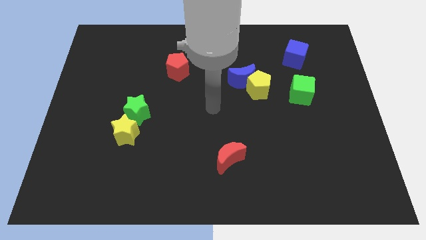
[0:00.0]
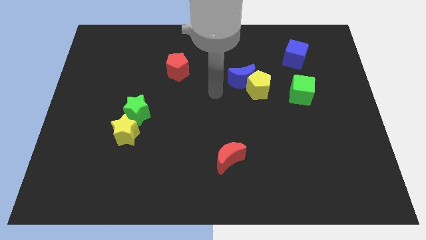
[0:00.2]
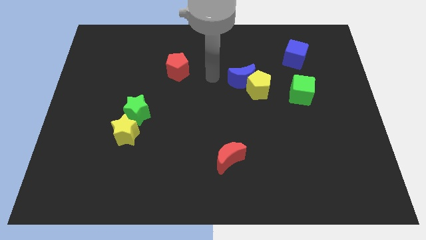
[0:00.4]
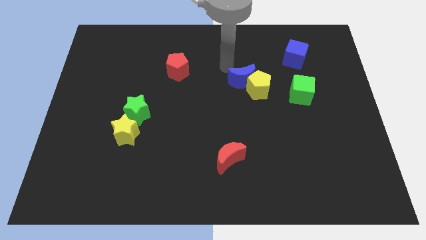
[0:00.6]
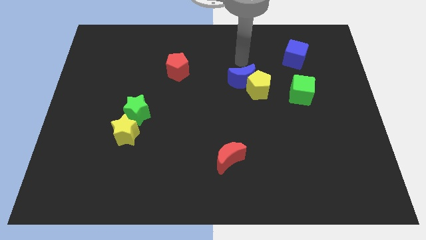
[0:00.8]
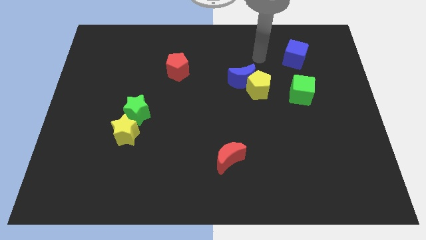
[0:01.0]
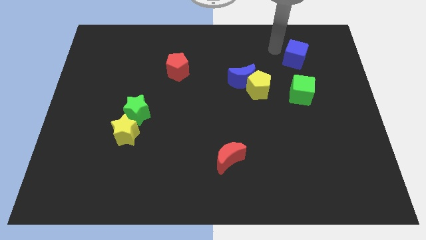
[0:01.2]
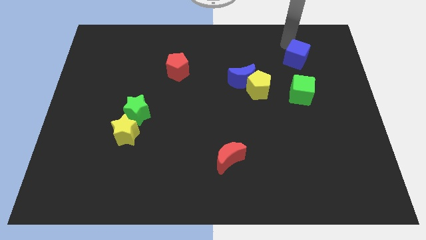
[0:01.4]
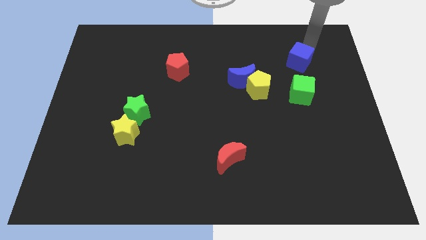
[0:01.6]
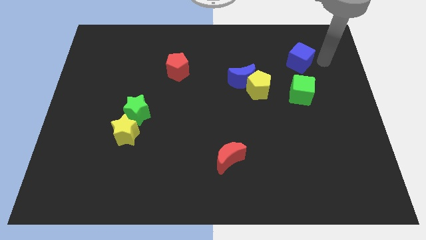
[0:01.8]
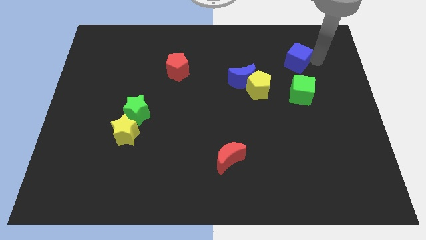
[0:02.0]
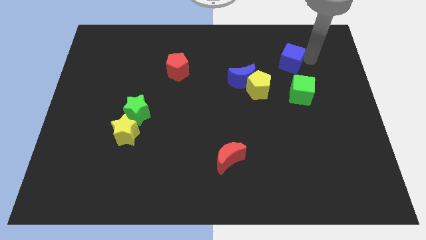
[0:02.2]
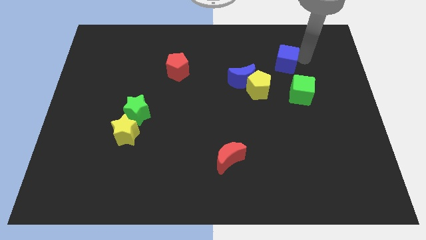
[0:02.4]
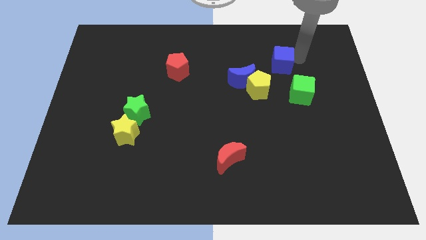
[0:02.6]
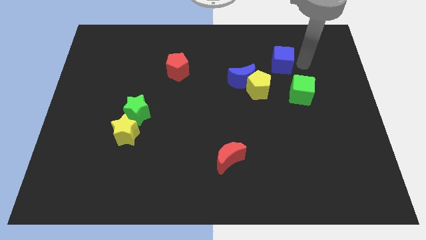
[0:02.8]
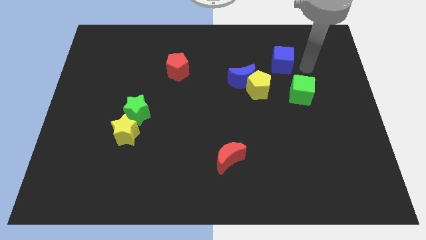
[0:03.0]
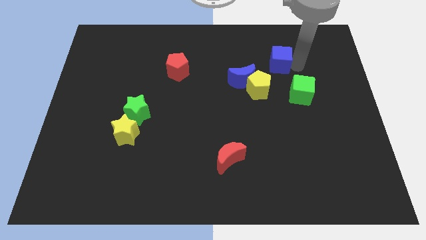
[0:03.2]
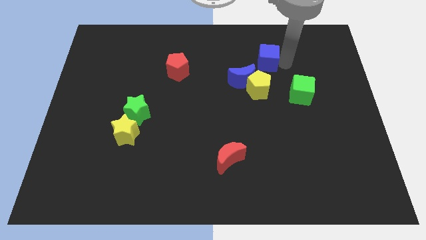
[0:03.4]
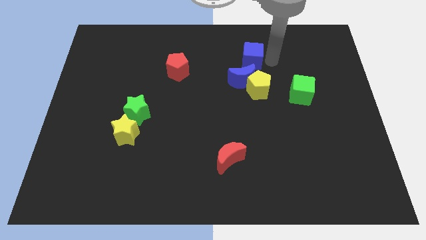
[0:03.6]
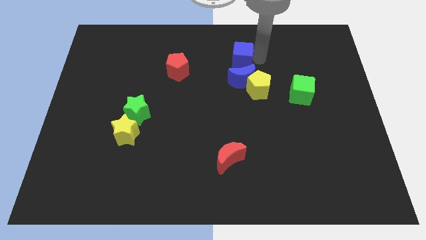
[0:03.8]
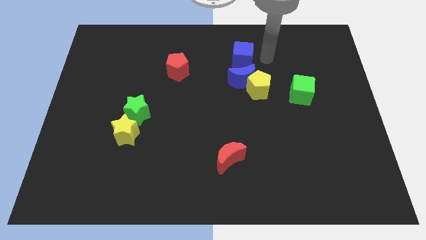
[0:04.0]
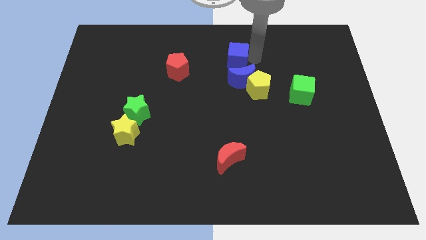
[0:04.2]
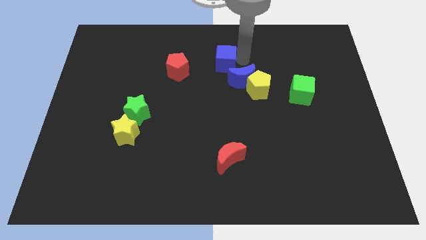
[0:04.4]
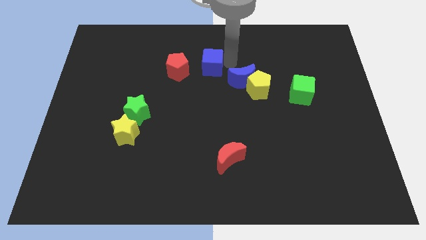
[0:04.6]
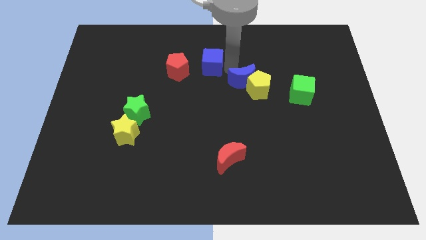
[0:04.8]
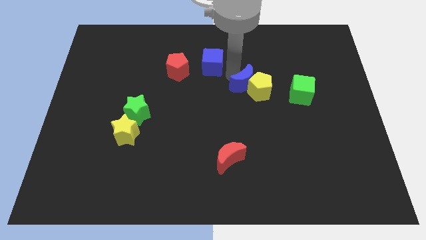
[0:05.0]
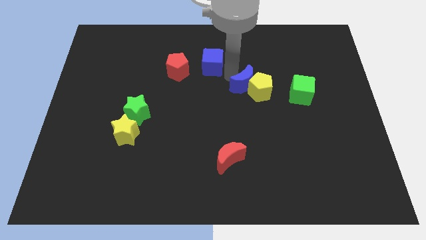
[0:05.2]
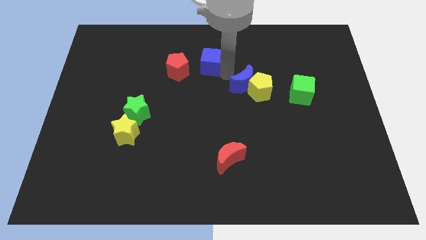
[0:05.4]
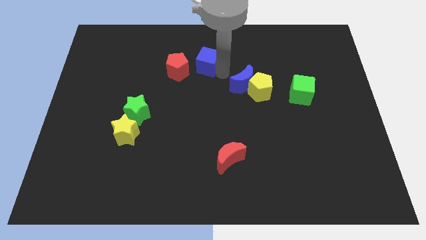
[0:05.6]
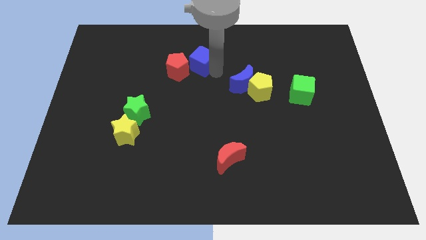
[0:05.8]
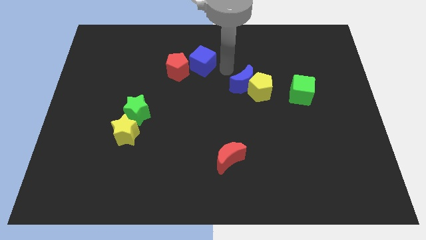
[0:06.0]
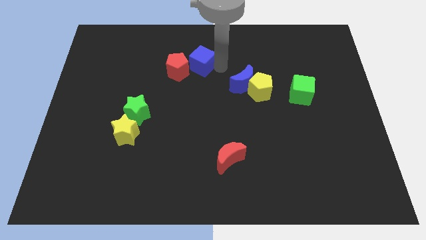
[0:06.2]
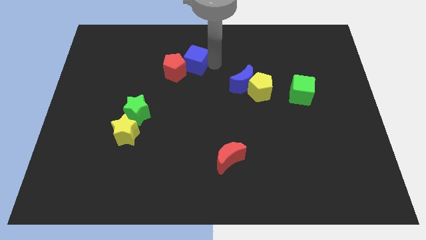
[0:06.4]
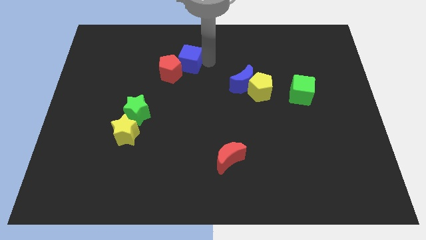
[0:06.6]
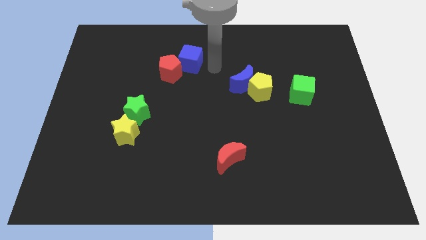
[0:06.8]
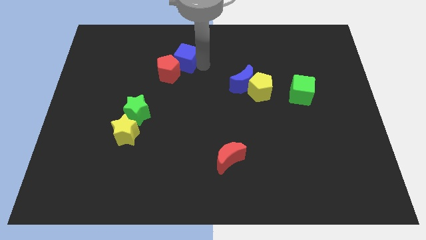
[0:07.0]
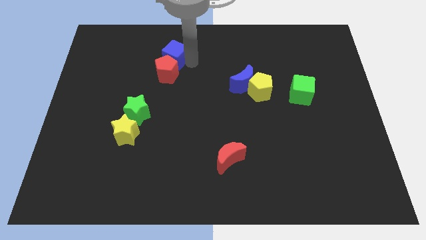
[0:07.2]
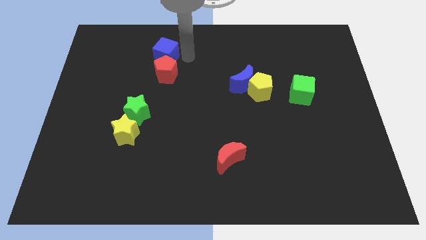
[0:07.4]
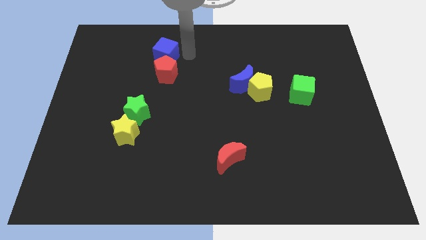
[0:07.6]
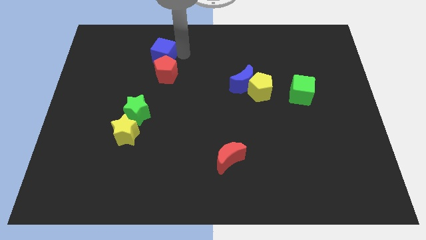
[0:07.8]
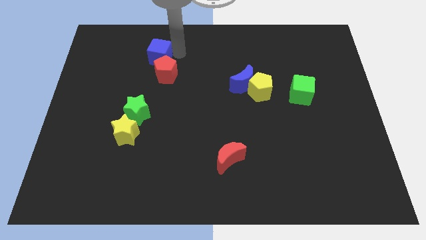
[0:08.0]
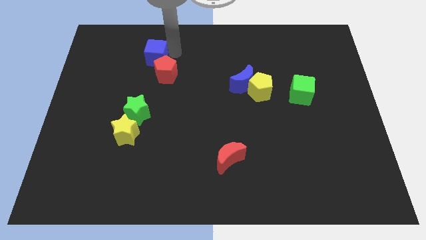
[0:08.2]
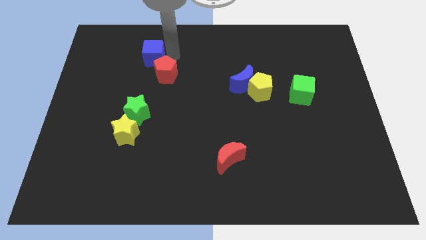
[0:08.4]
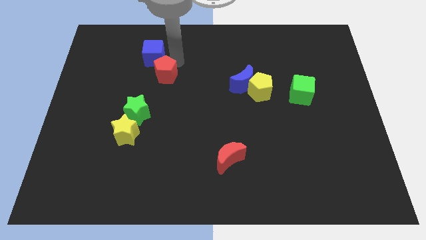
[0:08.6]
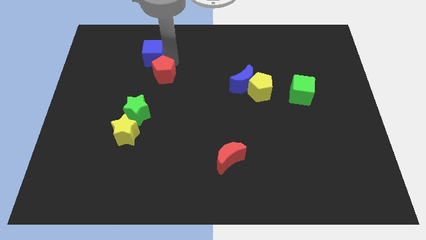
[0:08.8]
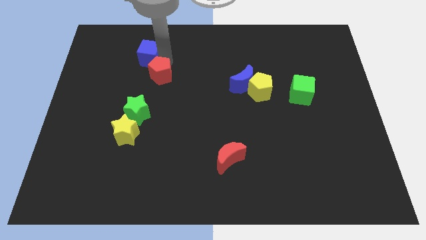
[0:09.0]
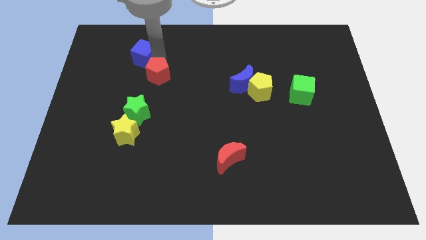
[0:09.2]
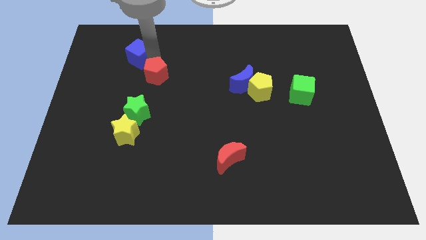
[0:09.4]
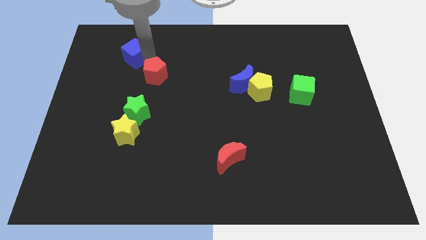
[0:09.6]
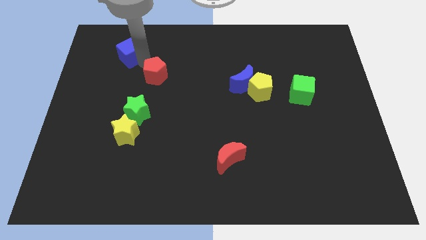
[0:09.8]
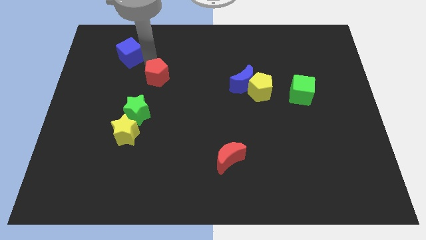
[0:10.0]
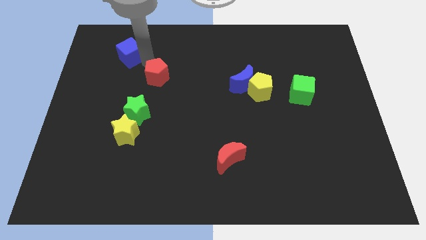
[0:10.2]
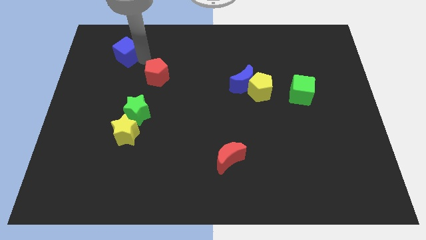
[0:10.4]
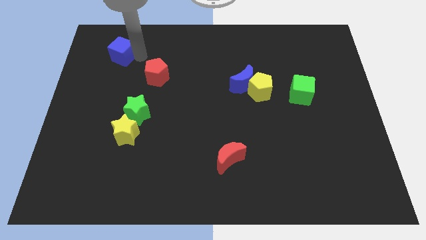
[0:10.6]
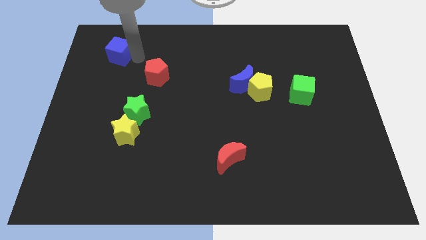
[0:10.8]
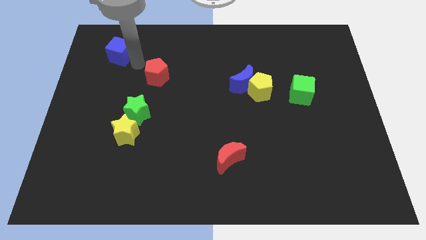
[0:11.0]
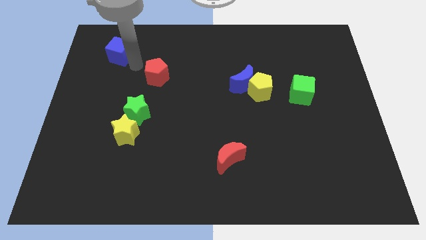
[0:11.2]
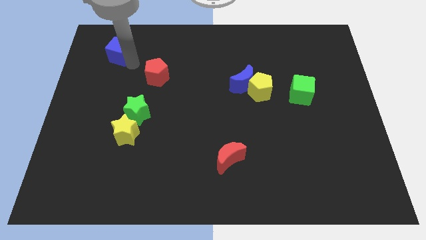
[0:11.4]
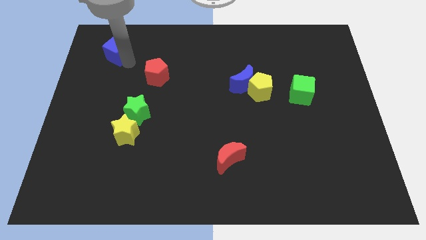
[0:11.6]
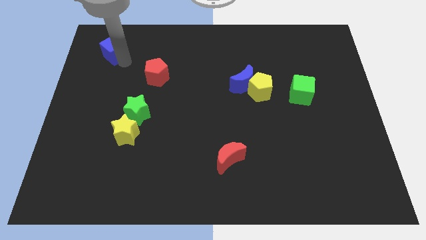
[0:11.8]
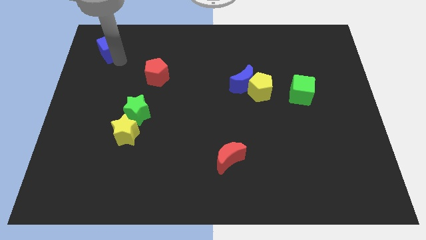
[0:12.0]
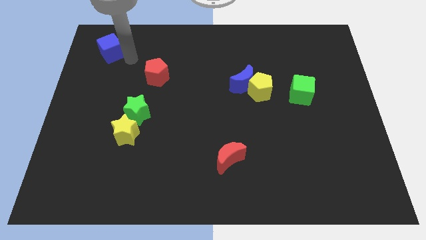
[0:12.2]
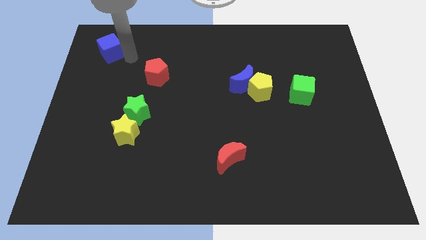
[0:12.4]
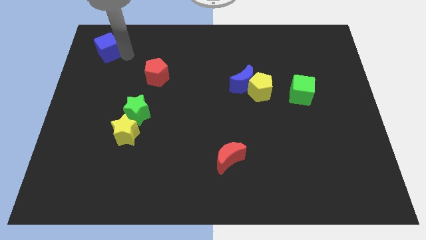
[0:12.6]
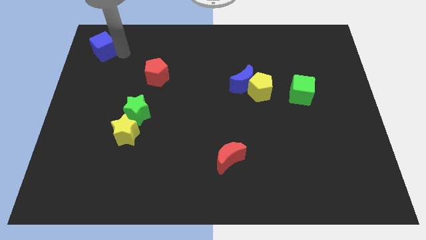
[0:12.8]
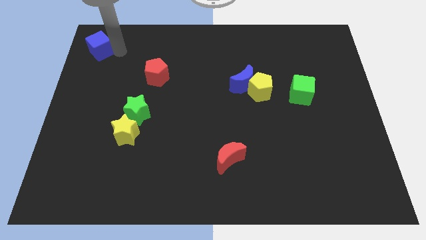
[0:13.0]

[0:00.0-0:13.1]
put the blue cube to the top left

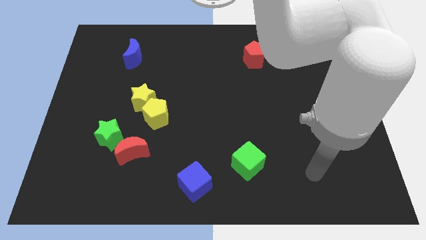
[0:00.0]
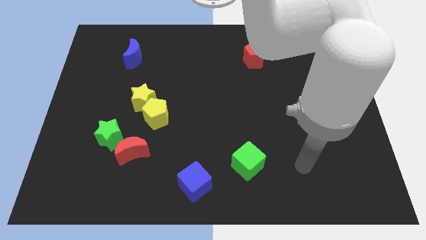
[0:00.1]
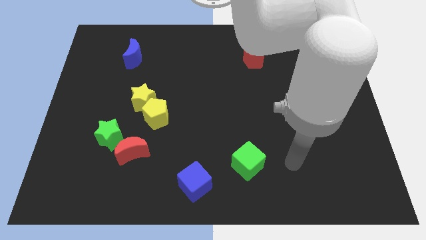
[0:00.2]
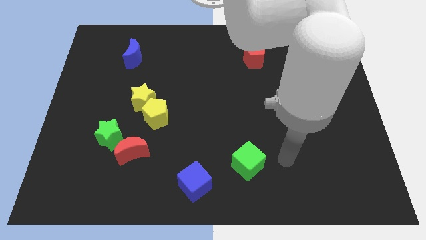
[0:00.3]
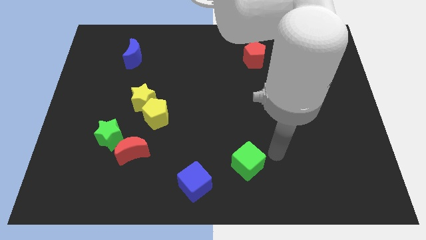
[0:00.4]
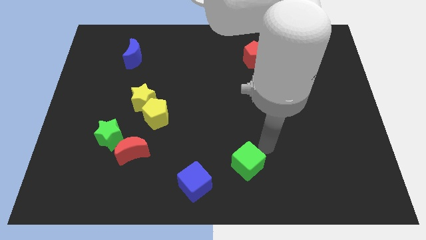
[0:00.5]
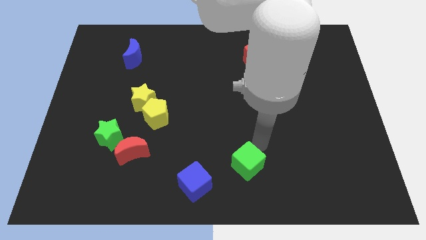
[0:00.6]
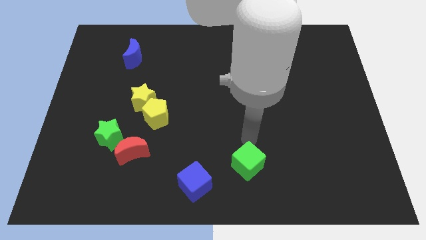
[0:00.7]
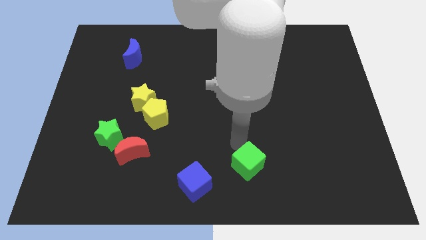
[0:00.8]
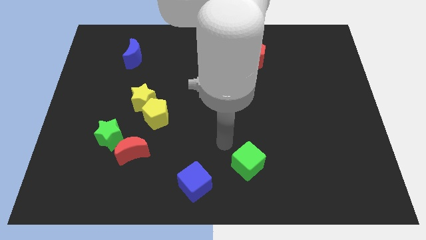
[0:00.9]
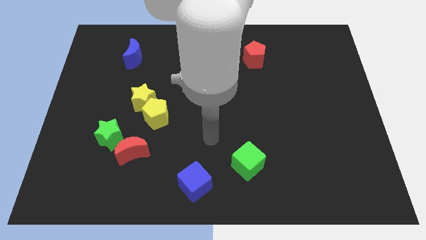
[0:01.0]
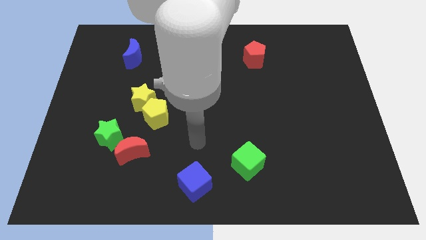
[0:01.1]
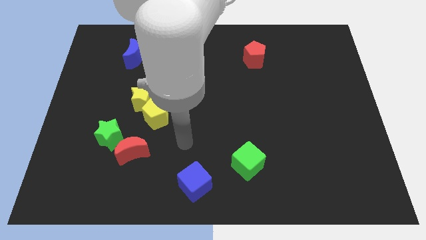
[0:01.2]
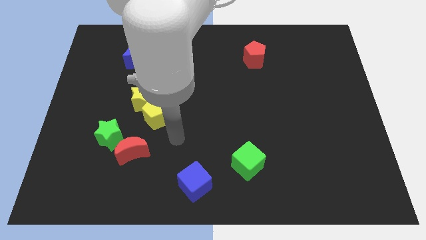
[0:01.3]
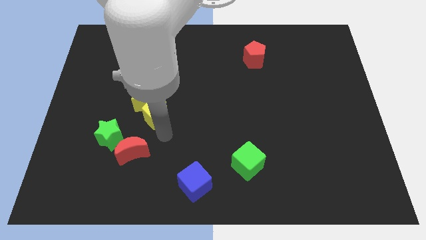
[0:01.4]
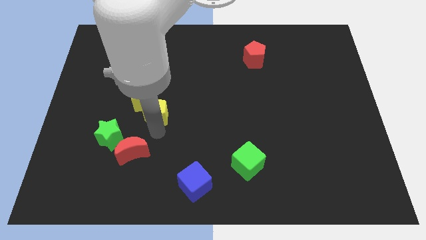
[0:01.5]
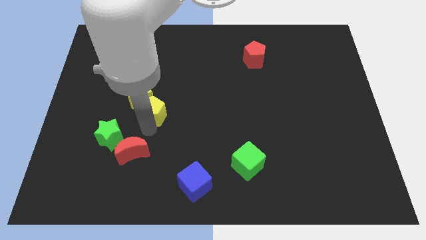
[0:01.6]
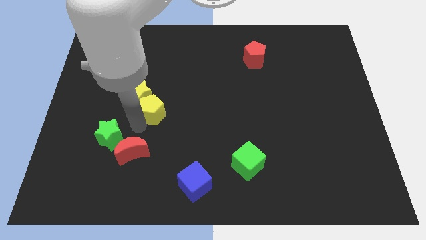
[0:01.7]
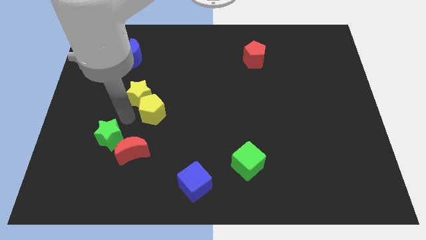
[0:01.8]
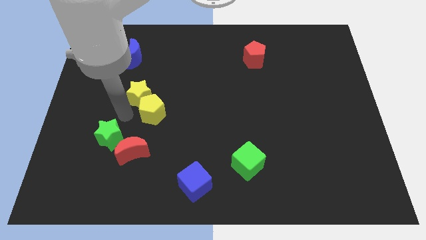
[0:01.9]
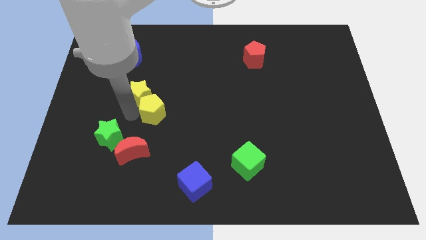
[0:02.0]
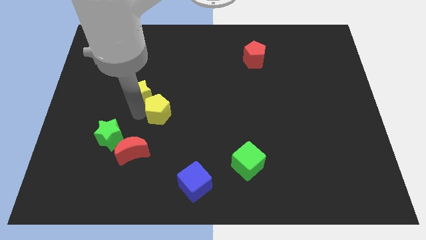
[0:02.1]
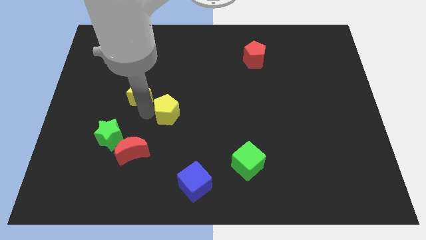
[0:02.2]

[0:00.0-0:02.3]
slide the yellow pentagon to the middle
